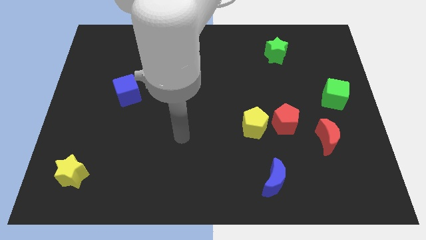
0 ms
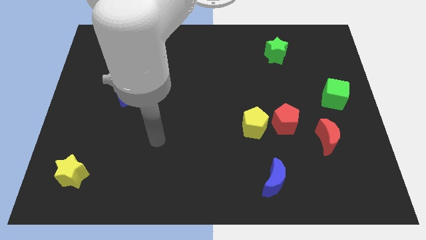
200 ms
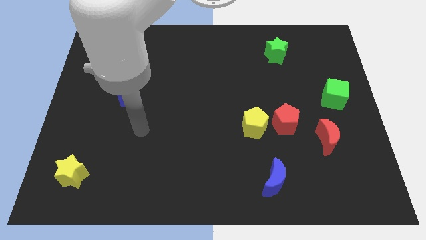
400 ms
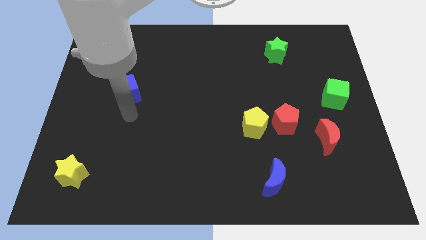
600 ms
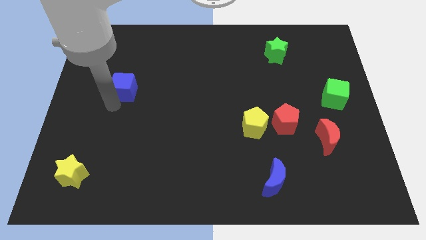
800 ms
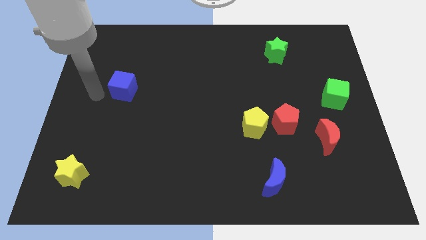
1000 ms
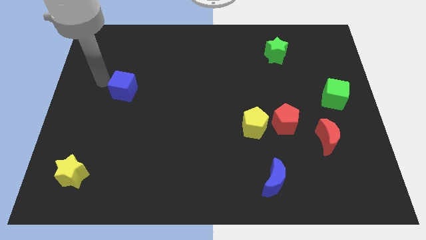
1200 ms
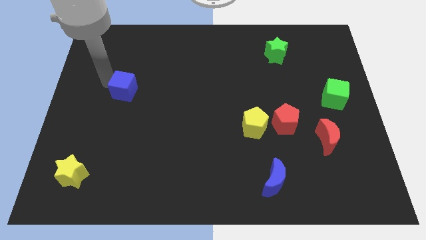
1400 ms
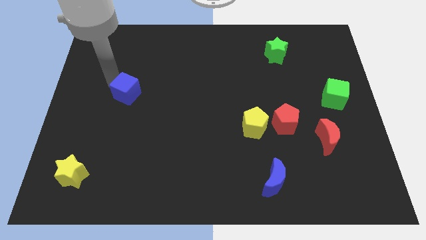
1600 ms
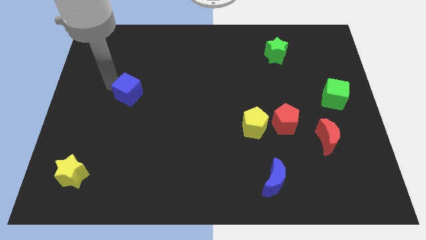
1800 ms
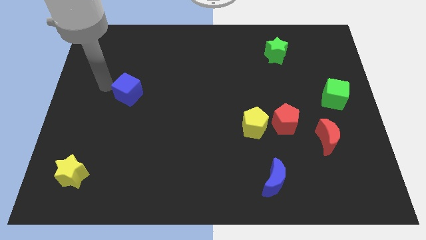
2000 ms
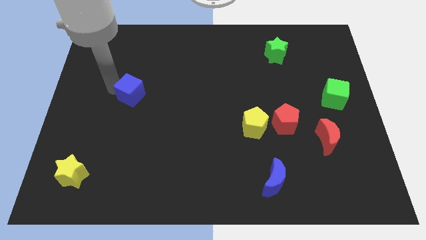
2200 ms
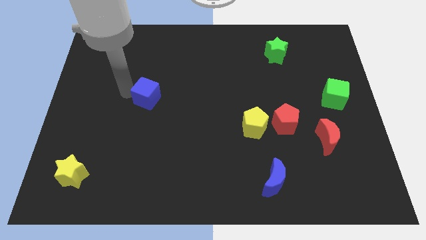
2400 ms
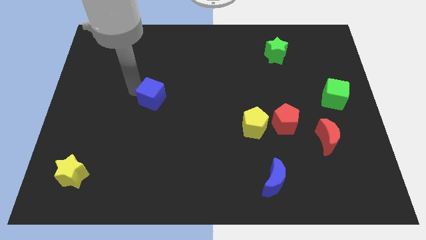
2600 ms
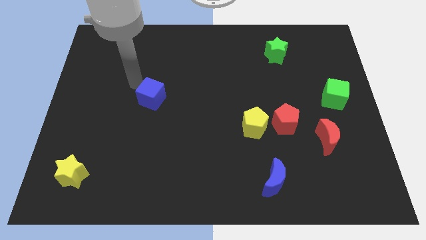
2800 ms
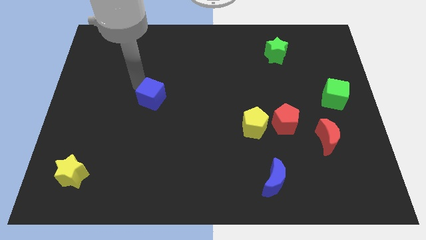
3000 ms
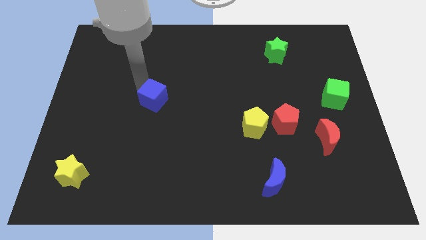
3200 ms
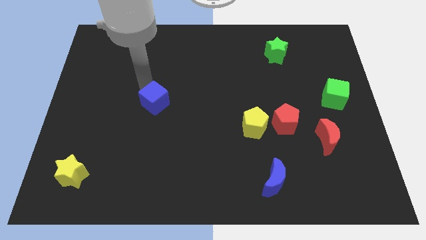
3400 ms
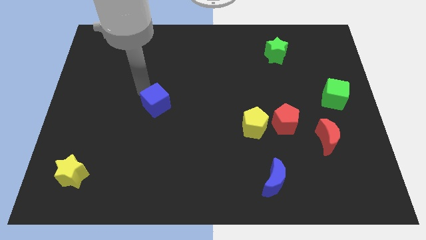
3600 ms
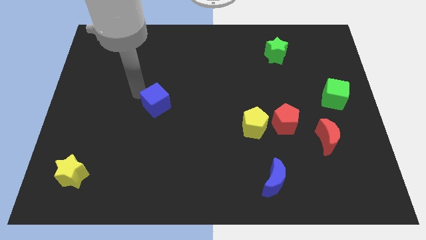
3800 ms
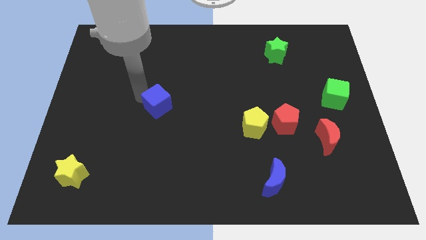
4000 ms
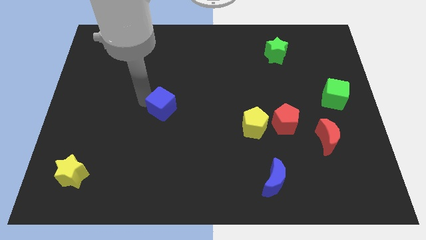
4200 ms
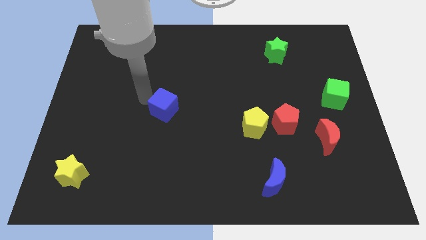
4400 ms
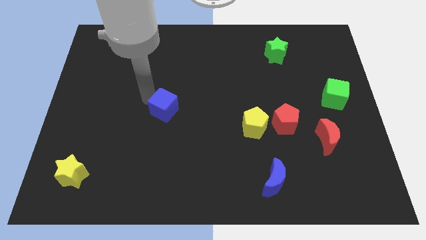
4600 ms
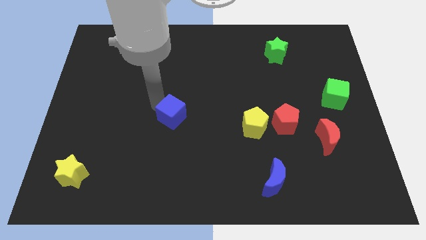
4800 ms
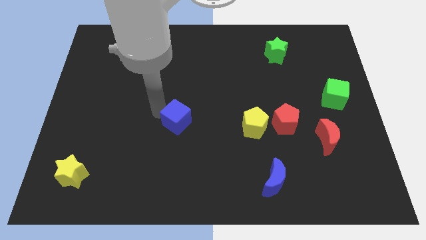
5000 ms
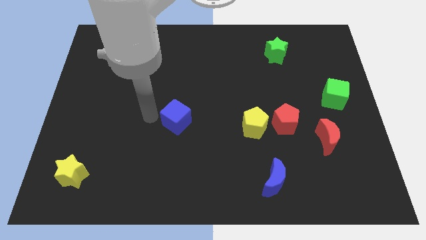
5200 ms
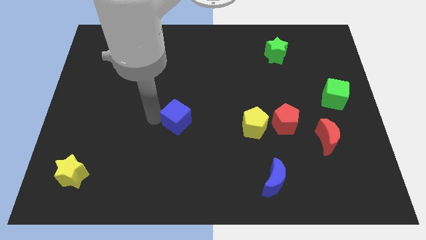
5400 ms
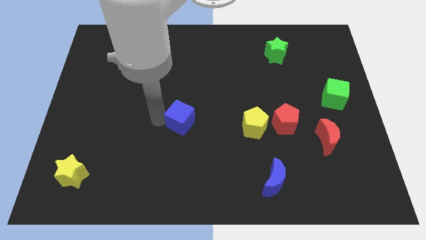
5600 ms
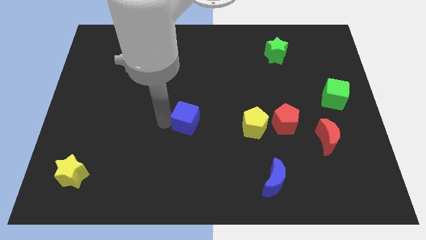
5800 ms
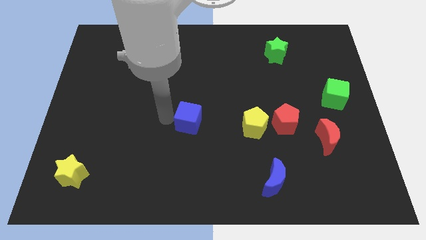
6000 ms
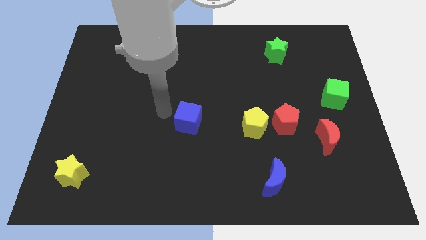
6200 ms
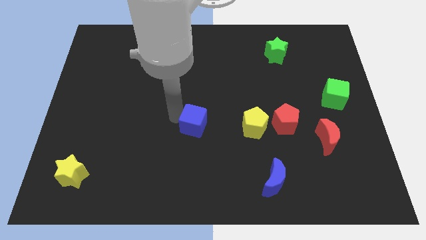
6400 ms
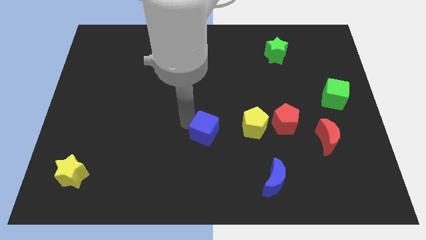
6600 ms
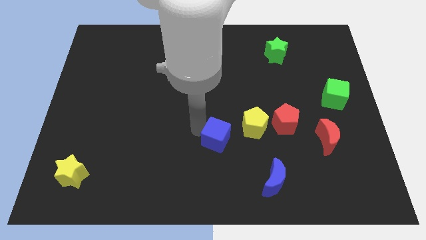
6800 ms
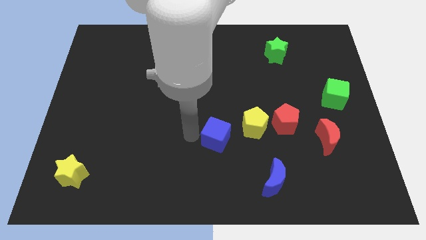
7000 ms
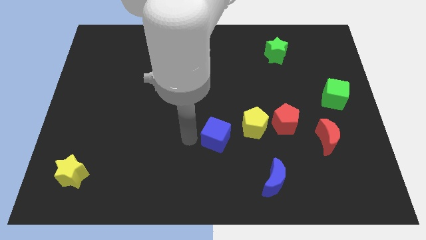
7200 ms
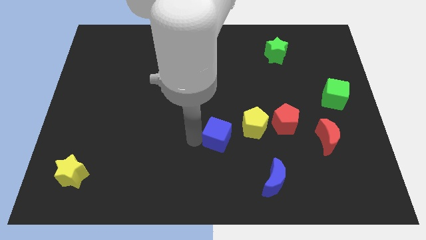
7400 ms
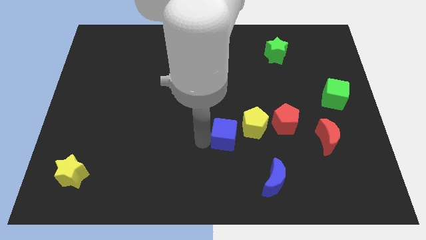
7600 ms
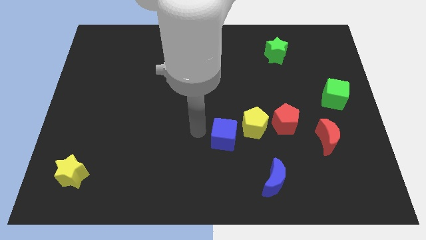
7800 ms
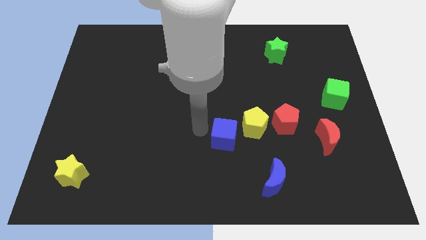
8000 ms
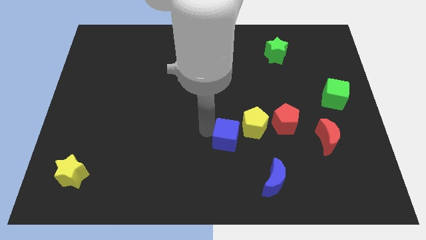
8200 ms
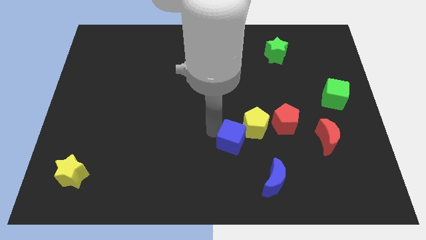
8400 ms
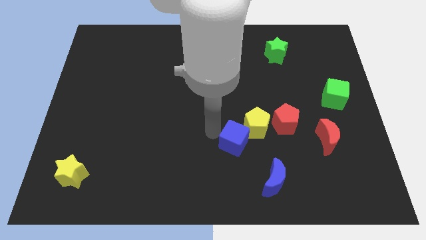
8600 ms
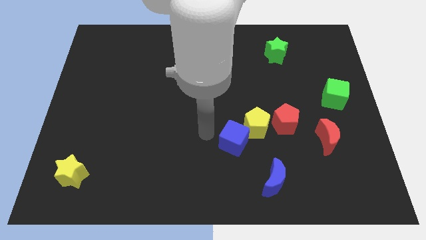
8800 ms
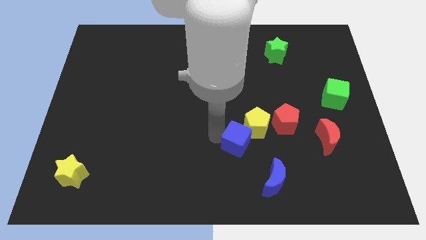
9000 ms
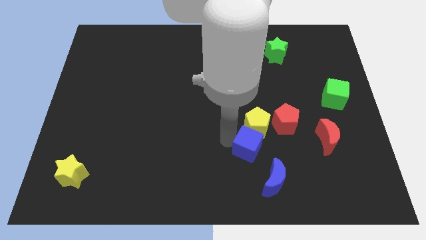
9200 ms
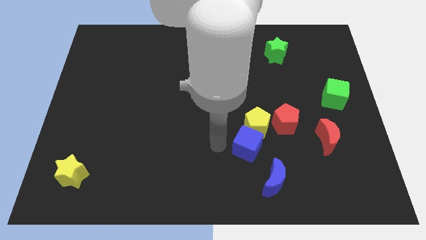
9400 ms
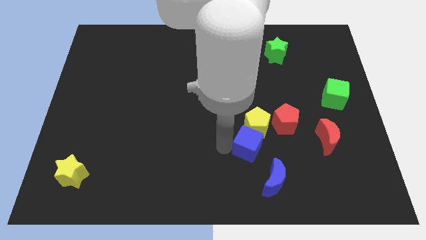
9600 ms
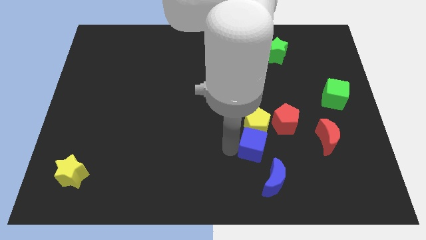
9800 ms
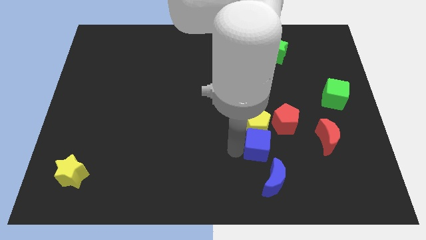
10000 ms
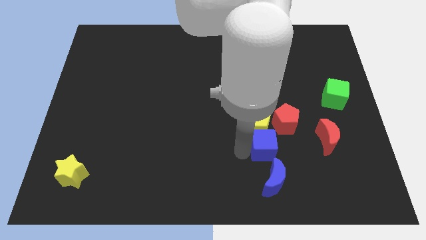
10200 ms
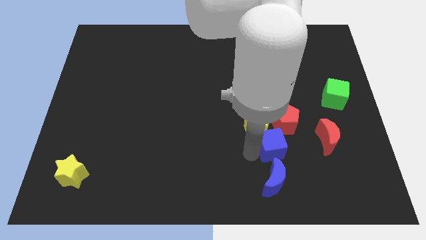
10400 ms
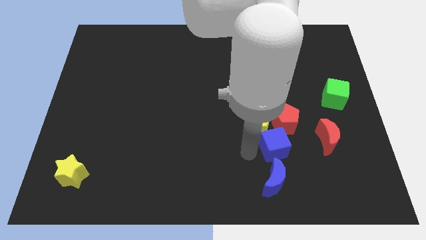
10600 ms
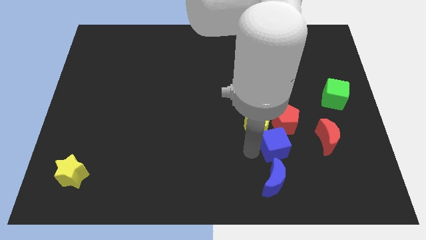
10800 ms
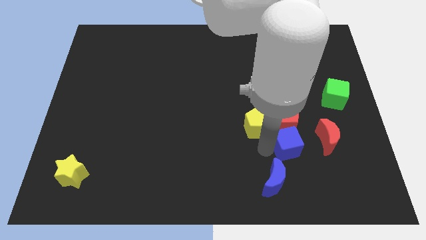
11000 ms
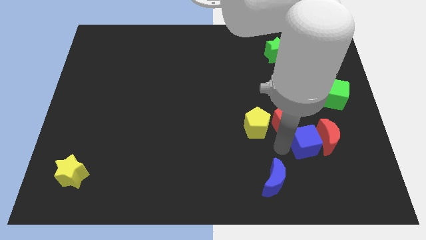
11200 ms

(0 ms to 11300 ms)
push the blue cube towards the red moon

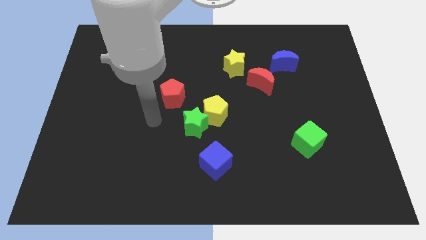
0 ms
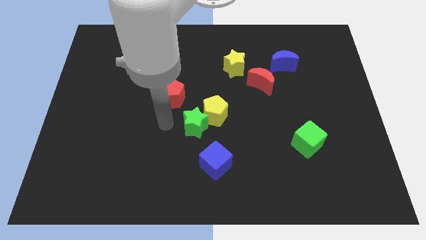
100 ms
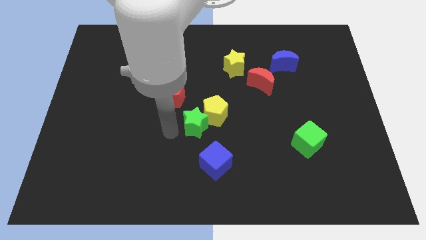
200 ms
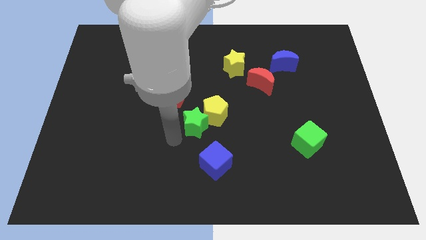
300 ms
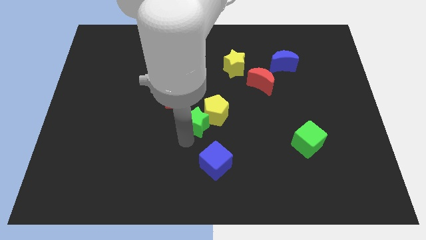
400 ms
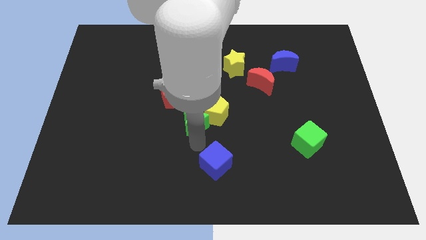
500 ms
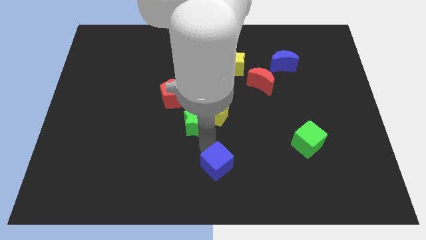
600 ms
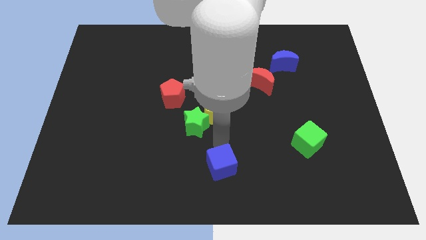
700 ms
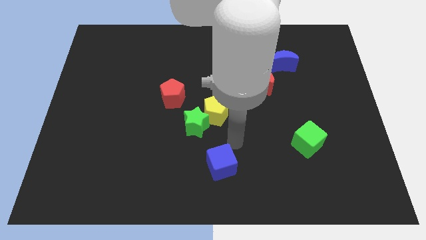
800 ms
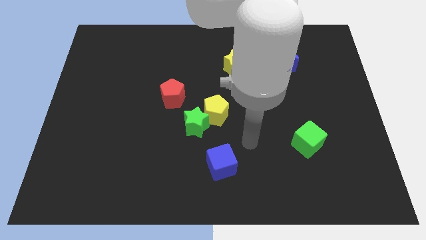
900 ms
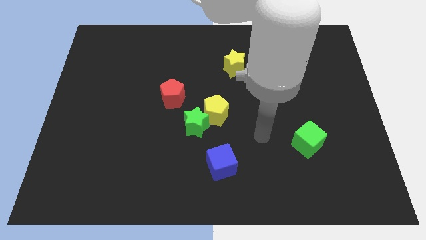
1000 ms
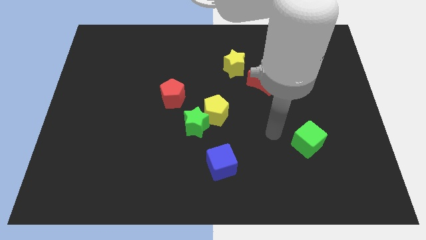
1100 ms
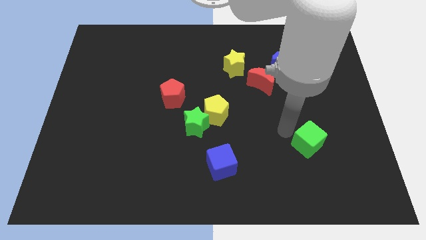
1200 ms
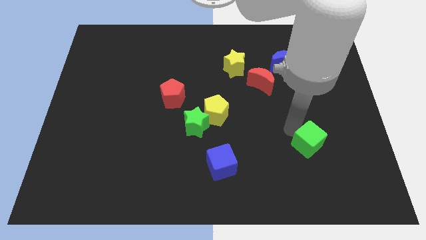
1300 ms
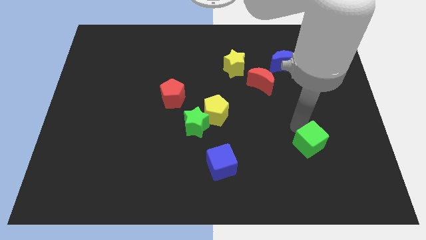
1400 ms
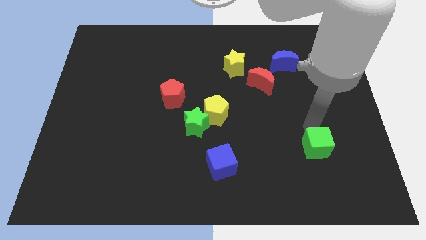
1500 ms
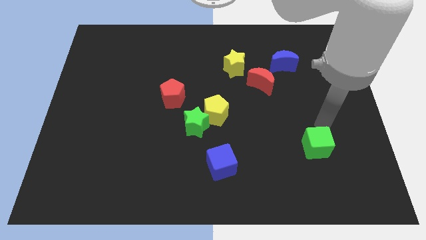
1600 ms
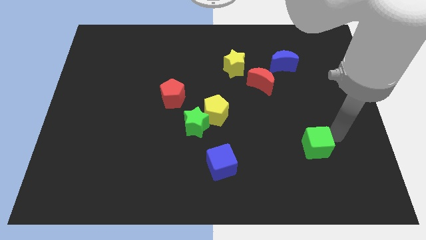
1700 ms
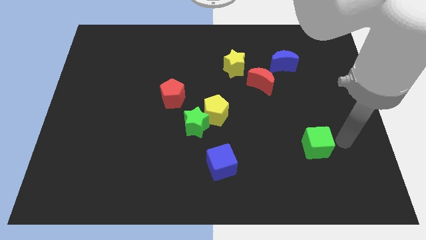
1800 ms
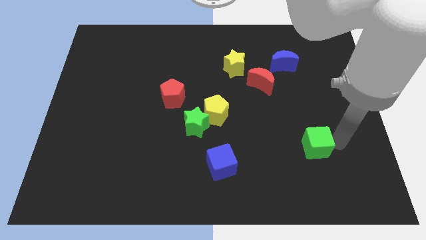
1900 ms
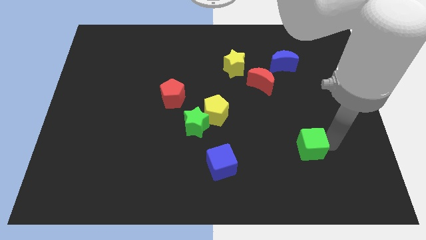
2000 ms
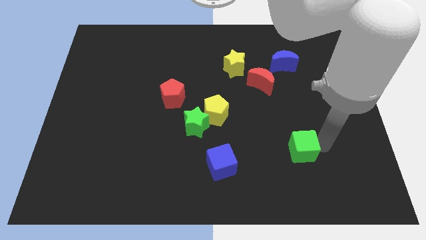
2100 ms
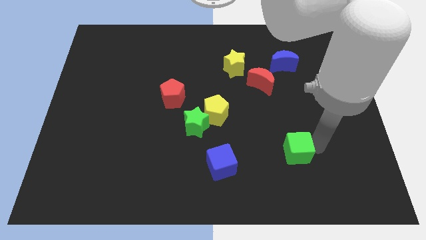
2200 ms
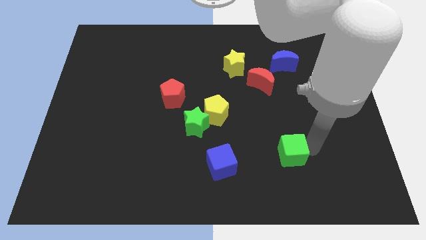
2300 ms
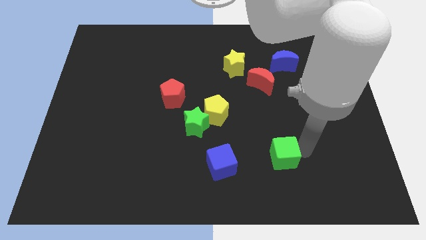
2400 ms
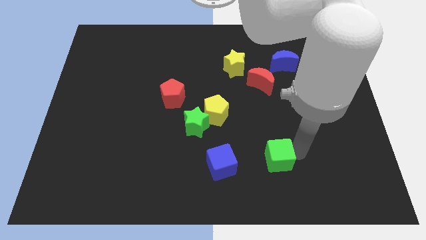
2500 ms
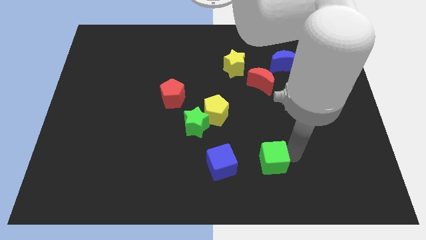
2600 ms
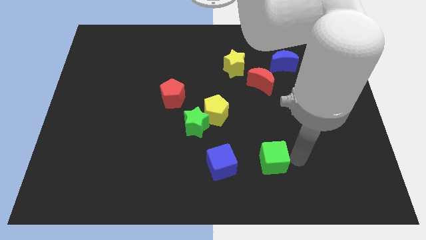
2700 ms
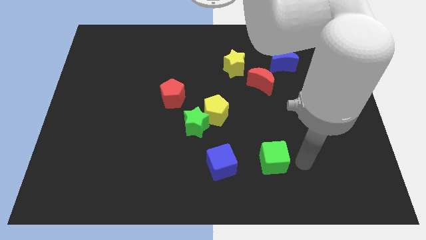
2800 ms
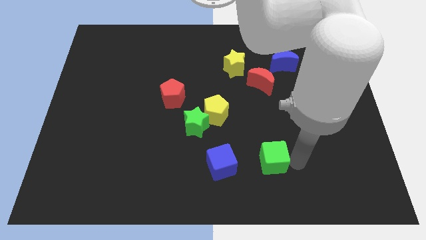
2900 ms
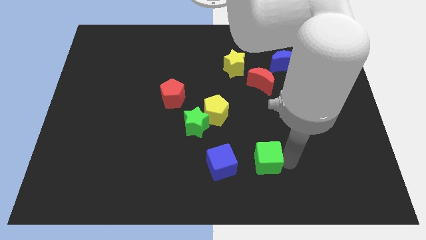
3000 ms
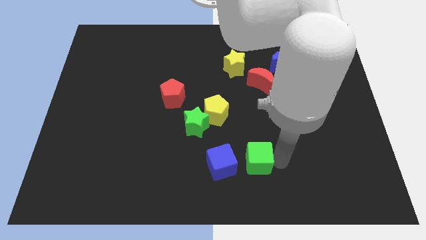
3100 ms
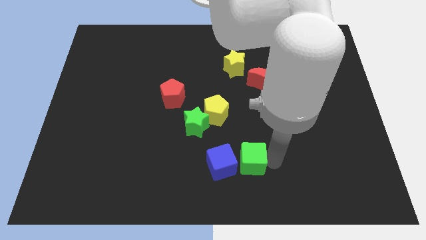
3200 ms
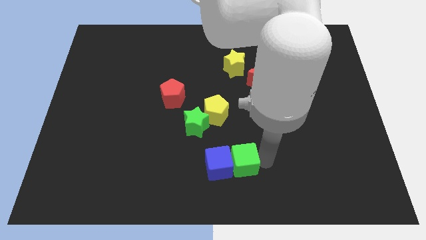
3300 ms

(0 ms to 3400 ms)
put the green cube close to the blue cube
